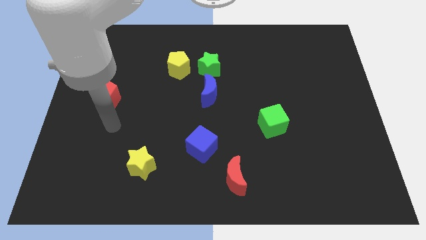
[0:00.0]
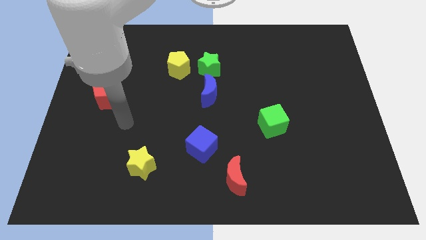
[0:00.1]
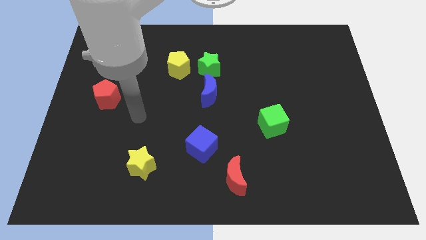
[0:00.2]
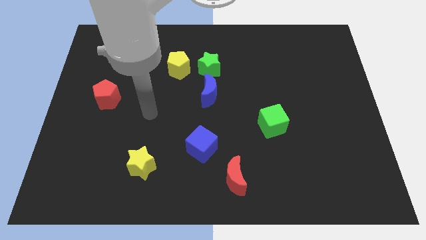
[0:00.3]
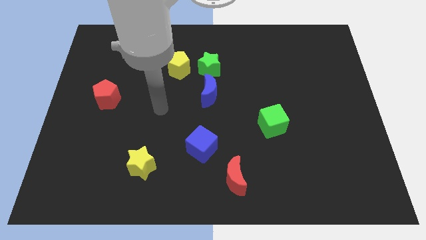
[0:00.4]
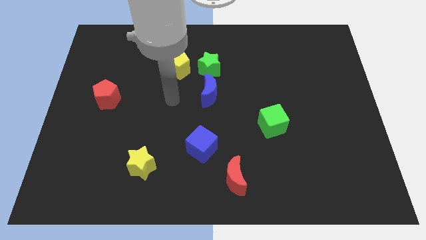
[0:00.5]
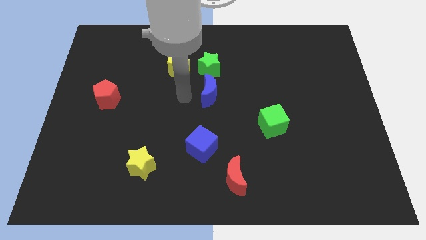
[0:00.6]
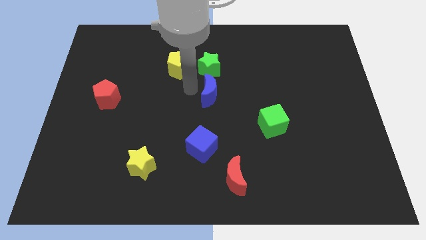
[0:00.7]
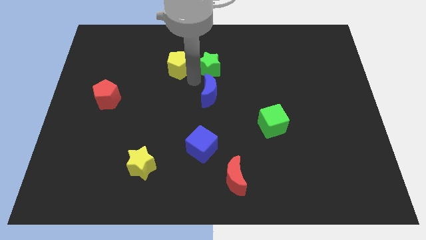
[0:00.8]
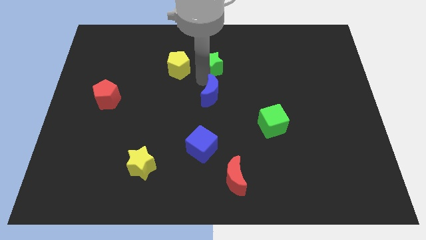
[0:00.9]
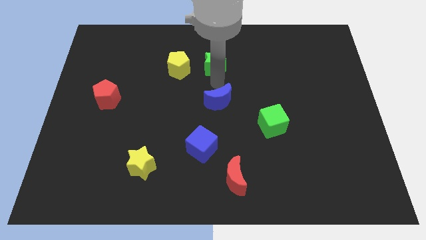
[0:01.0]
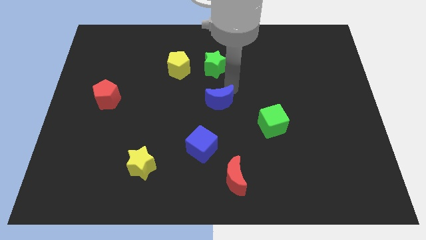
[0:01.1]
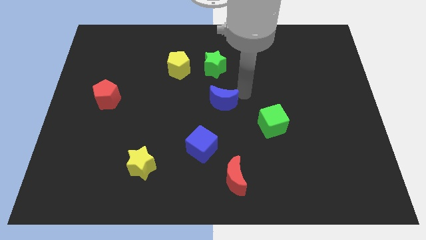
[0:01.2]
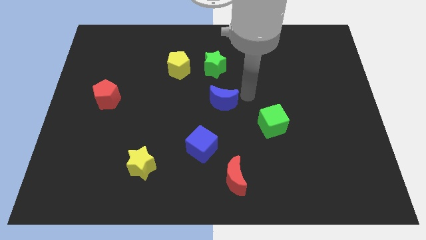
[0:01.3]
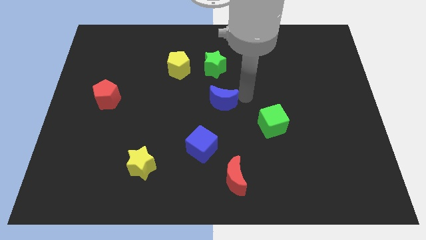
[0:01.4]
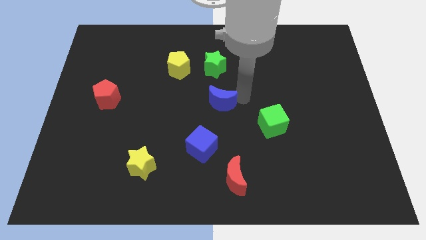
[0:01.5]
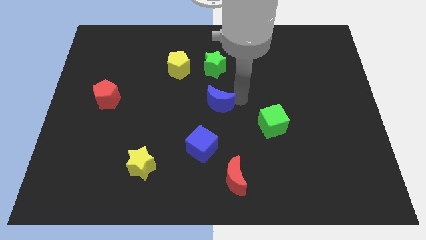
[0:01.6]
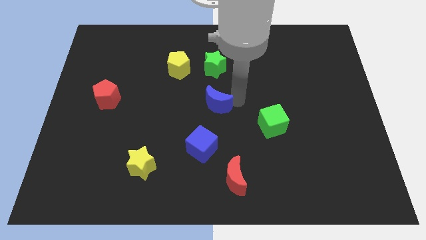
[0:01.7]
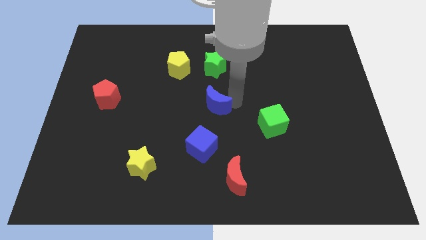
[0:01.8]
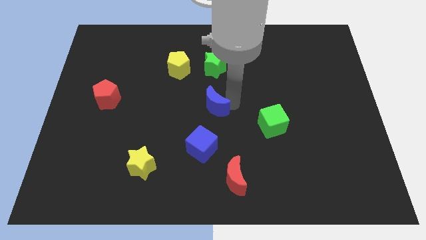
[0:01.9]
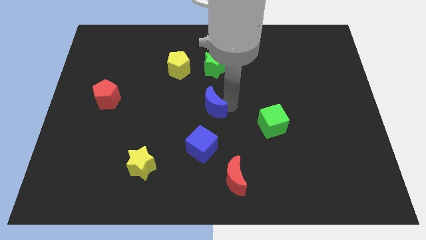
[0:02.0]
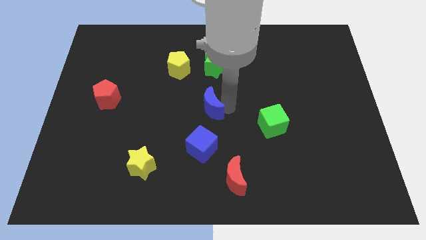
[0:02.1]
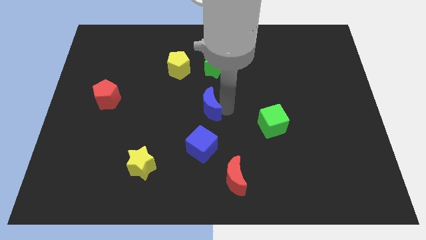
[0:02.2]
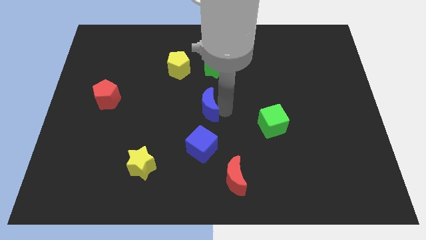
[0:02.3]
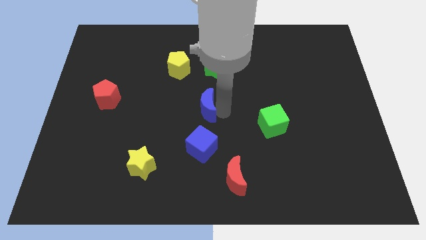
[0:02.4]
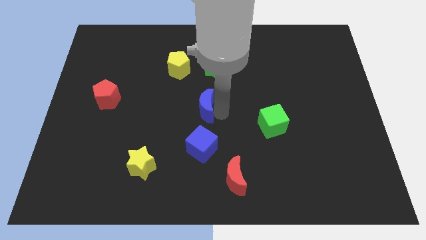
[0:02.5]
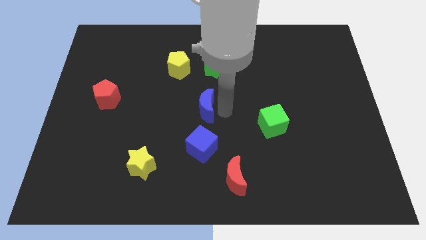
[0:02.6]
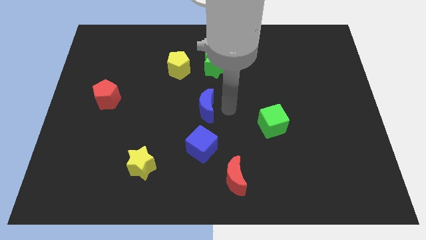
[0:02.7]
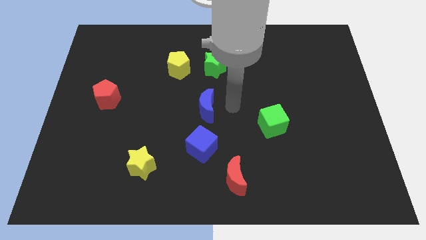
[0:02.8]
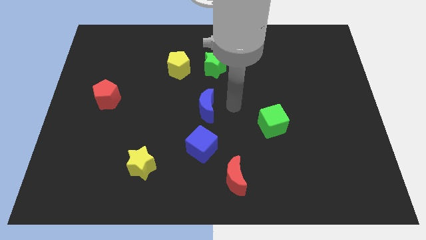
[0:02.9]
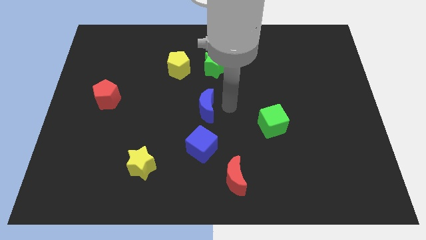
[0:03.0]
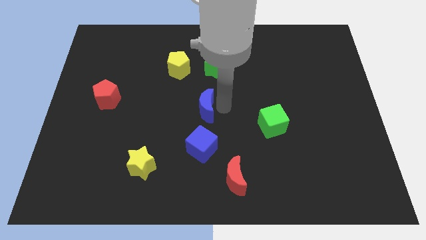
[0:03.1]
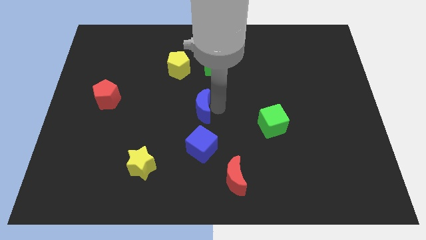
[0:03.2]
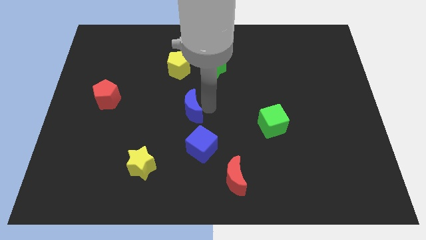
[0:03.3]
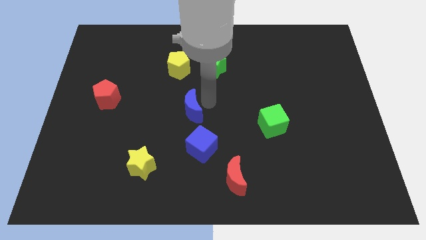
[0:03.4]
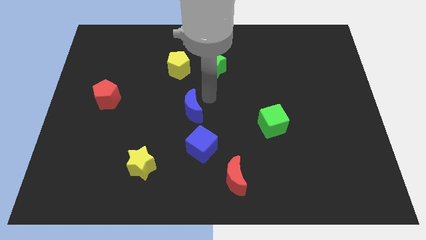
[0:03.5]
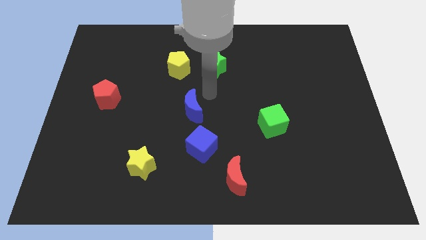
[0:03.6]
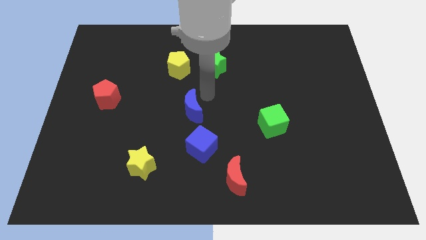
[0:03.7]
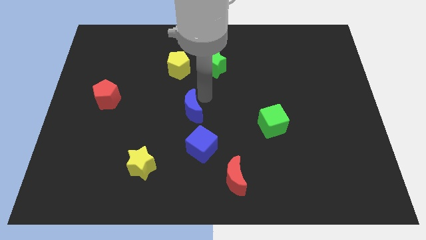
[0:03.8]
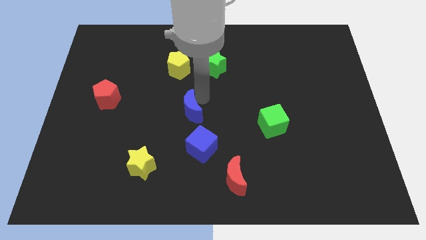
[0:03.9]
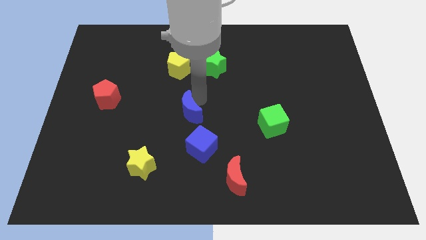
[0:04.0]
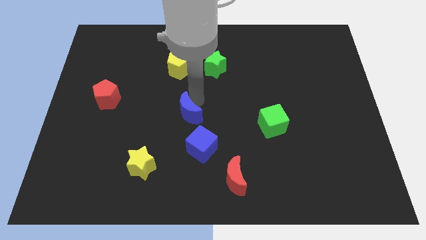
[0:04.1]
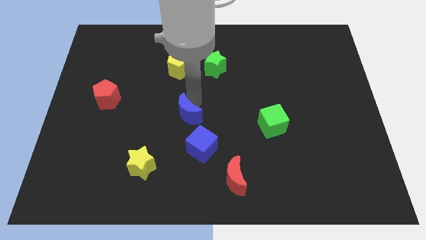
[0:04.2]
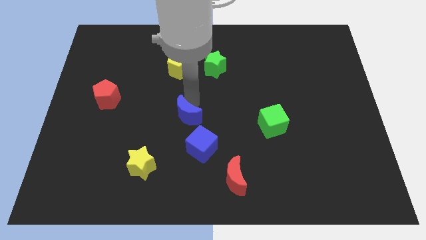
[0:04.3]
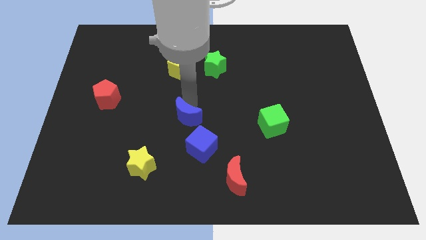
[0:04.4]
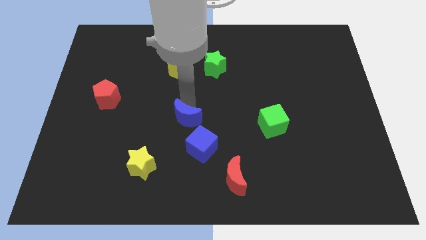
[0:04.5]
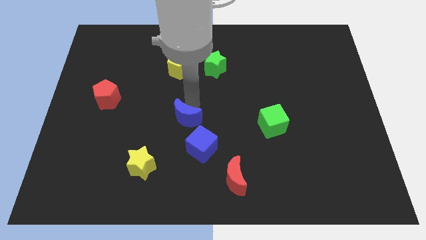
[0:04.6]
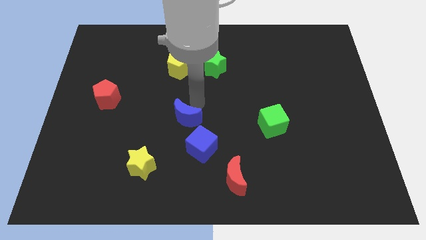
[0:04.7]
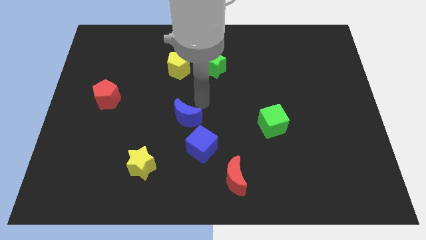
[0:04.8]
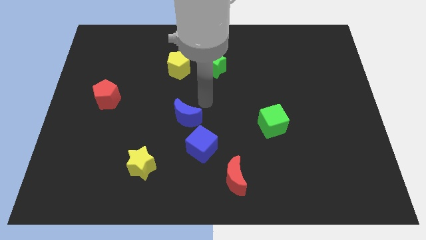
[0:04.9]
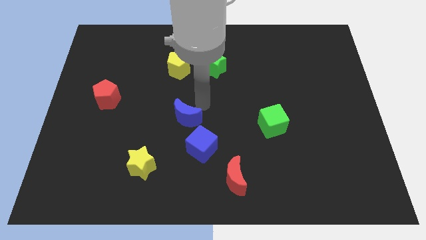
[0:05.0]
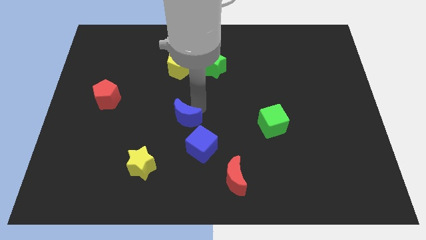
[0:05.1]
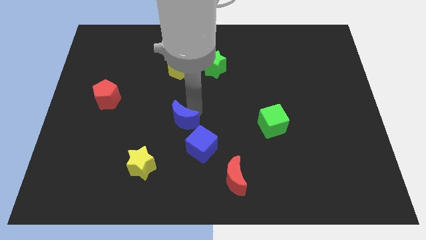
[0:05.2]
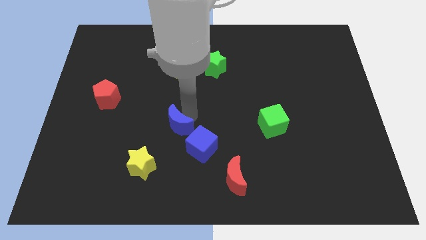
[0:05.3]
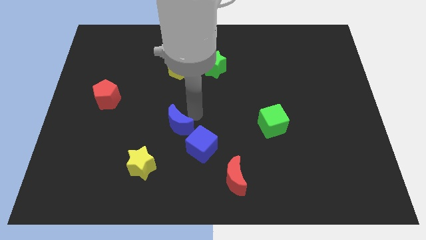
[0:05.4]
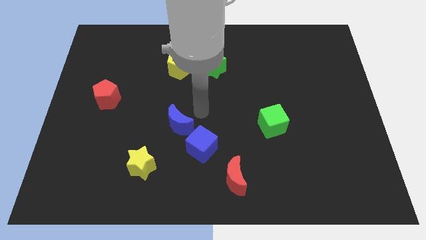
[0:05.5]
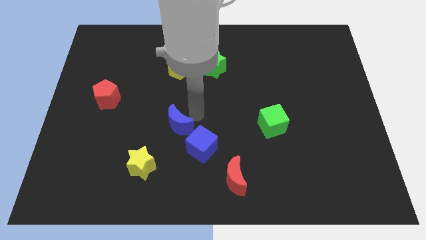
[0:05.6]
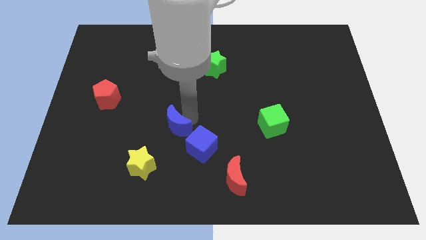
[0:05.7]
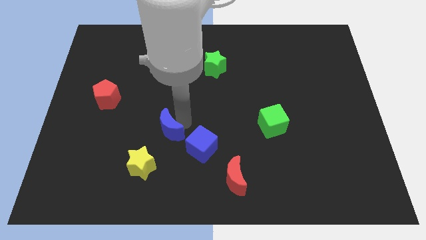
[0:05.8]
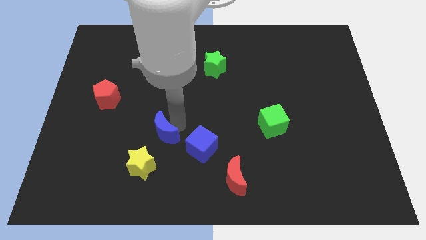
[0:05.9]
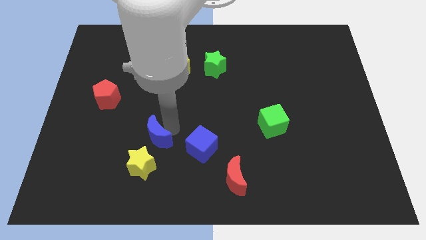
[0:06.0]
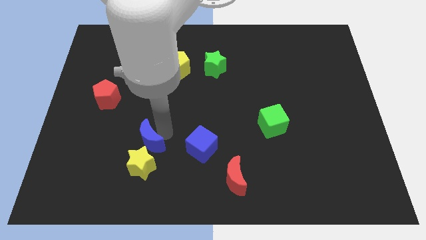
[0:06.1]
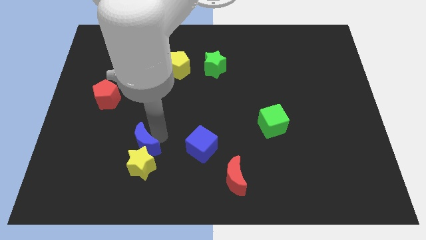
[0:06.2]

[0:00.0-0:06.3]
push the blue moon downwards and then left

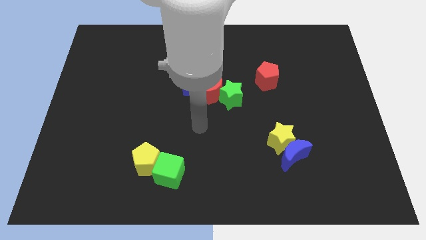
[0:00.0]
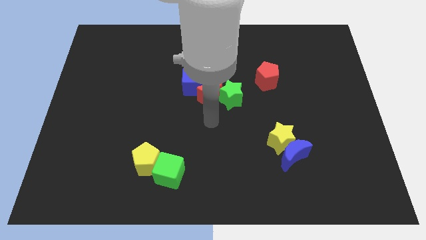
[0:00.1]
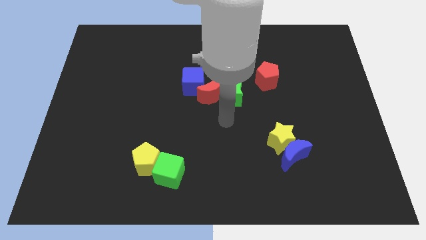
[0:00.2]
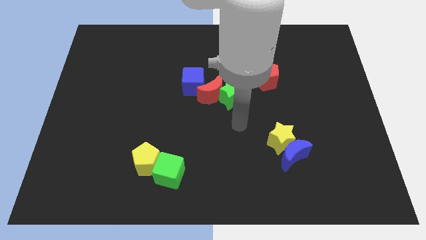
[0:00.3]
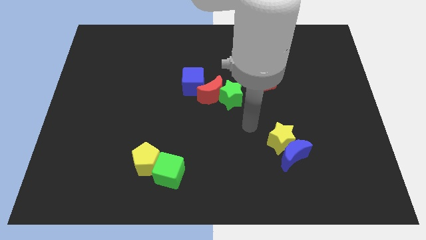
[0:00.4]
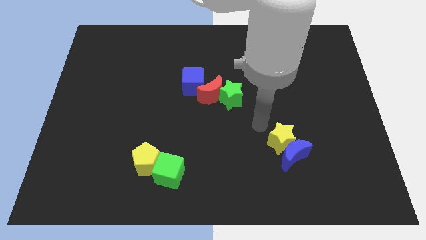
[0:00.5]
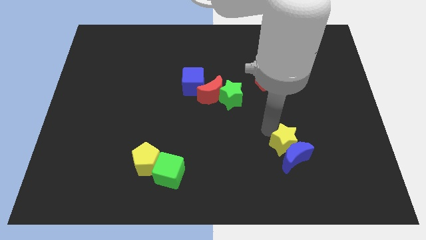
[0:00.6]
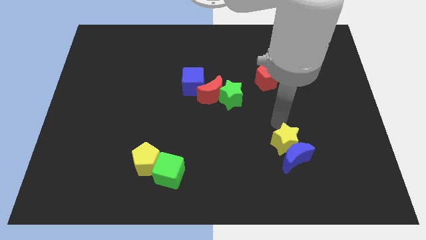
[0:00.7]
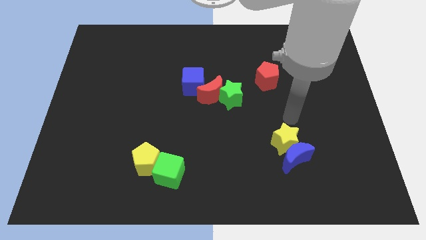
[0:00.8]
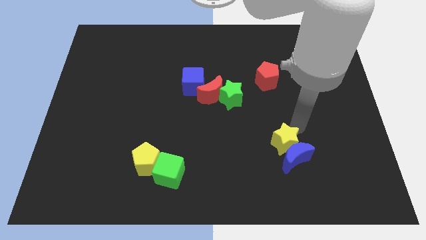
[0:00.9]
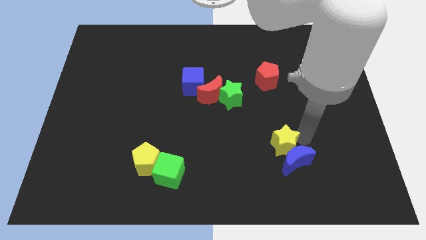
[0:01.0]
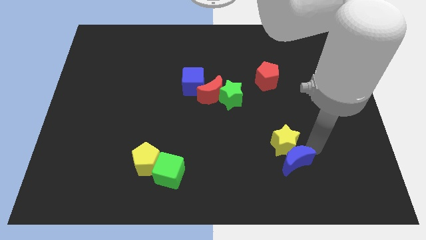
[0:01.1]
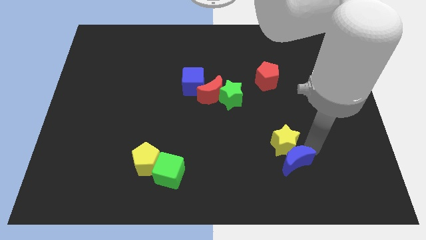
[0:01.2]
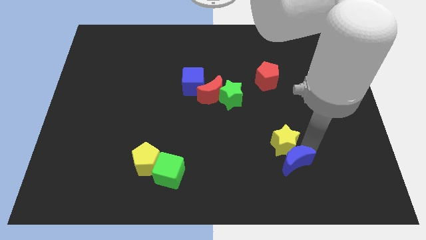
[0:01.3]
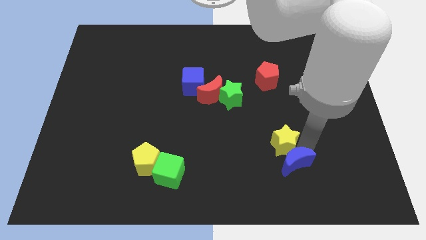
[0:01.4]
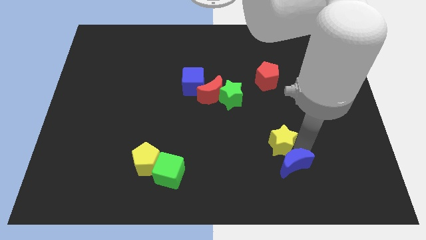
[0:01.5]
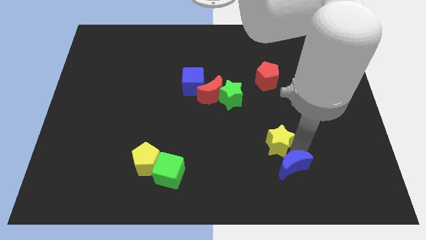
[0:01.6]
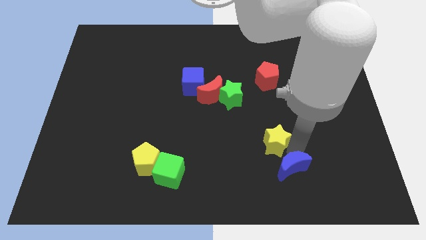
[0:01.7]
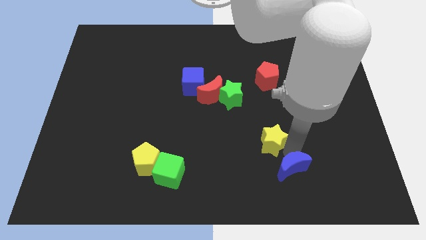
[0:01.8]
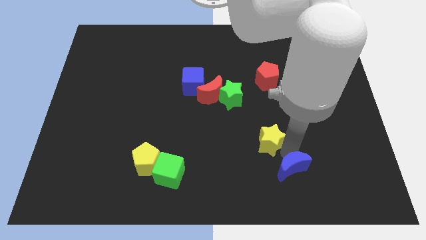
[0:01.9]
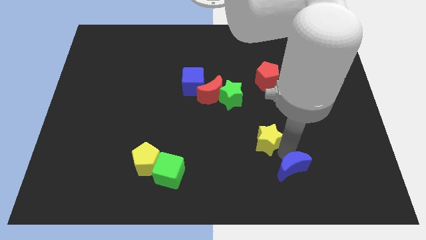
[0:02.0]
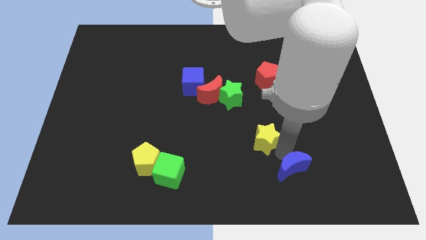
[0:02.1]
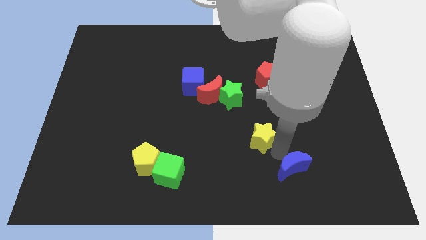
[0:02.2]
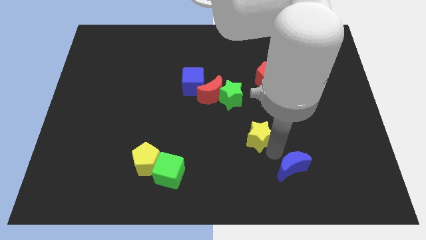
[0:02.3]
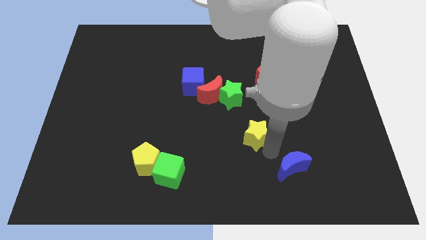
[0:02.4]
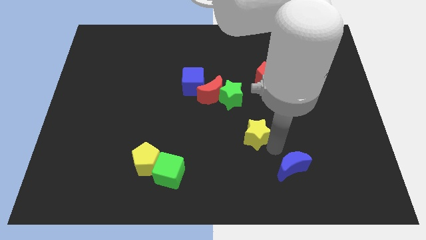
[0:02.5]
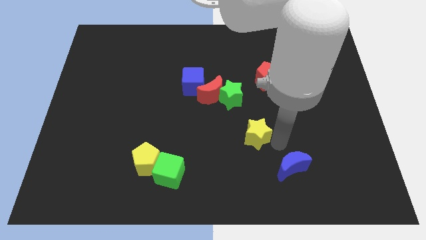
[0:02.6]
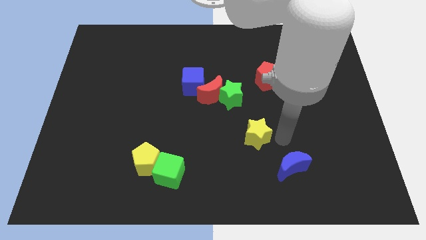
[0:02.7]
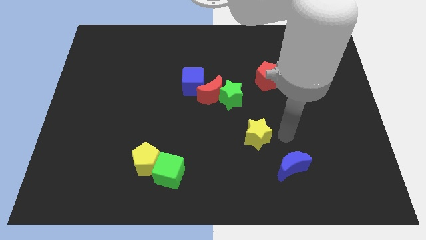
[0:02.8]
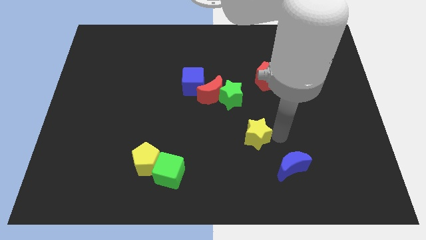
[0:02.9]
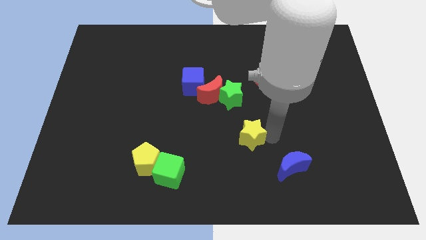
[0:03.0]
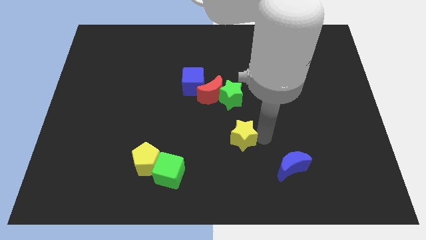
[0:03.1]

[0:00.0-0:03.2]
slide the yellow star left somewhat
